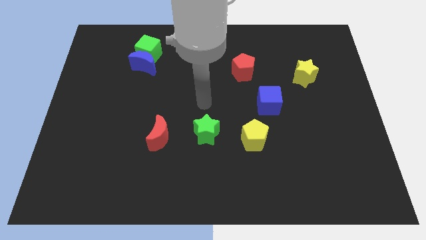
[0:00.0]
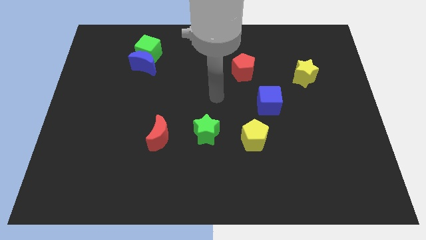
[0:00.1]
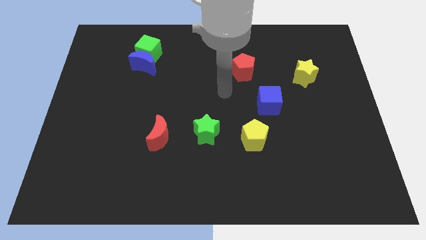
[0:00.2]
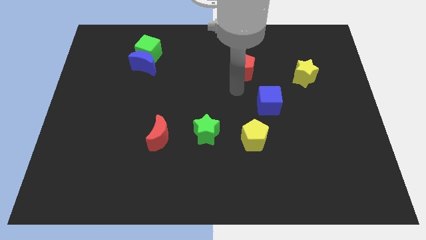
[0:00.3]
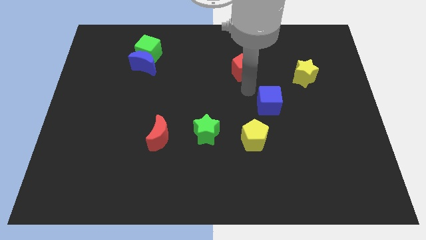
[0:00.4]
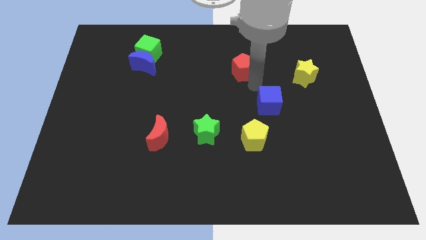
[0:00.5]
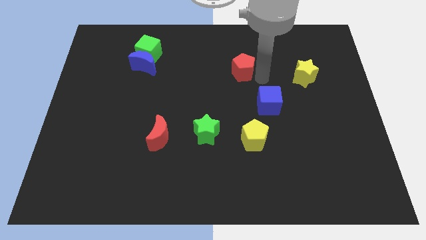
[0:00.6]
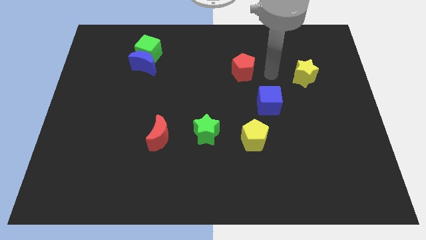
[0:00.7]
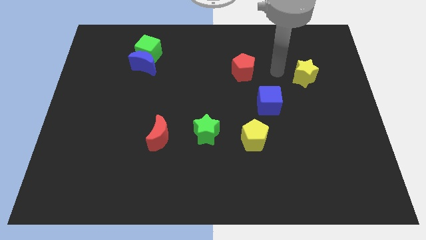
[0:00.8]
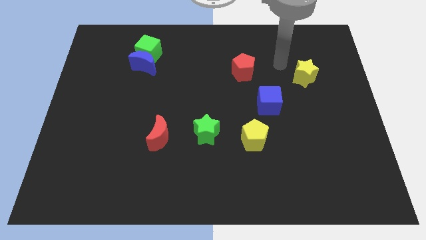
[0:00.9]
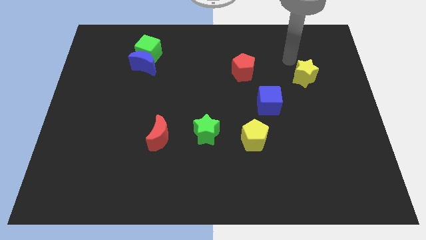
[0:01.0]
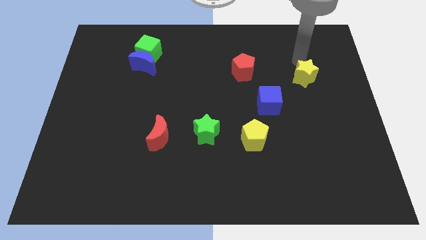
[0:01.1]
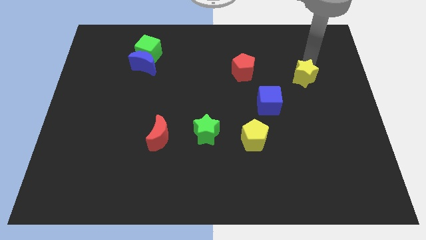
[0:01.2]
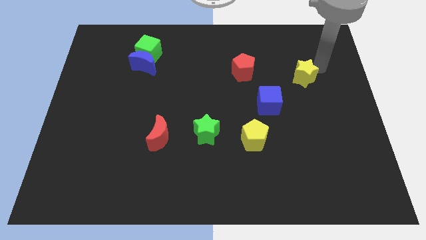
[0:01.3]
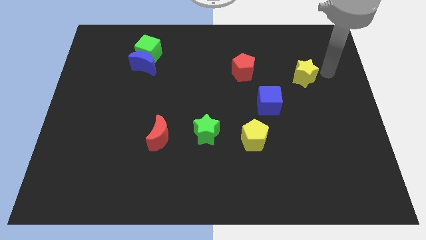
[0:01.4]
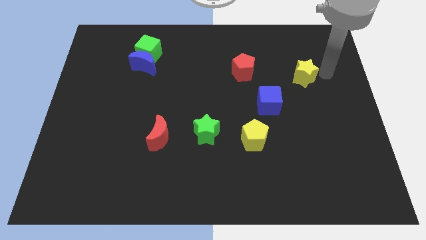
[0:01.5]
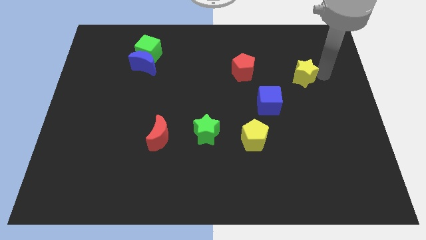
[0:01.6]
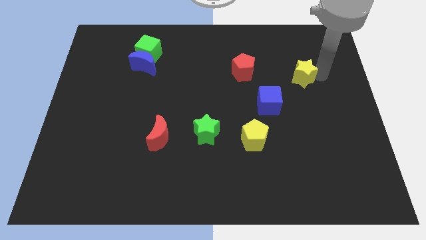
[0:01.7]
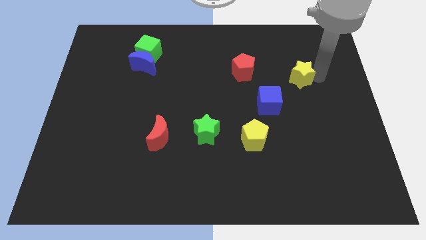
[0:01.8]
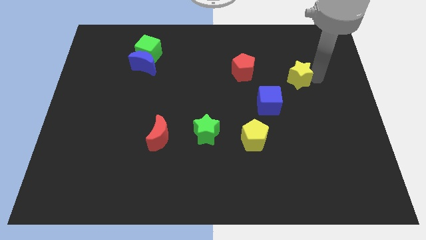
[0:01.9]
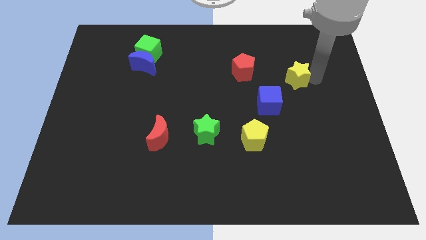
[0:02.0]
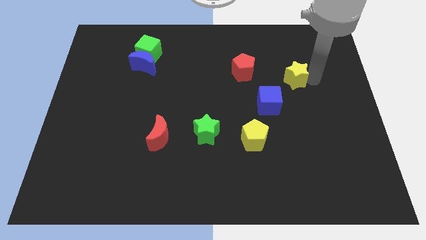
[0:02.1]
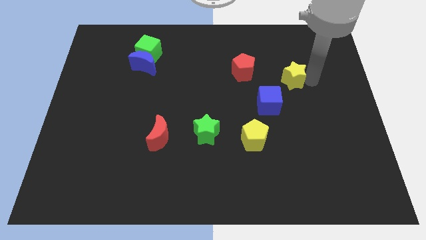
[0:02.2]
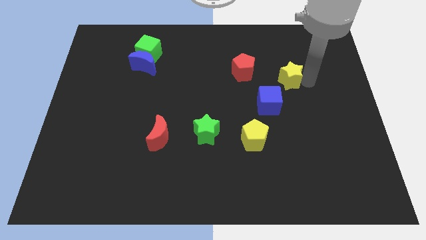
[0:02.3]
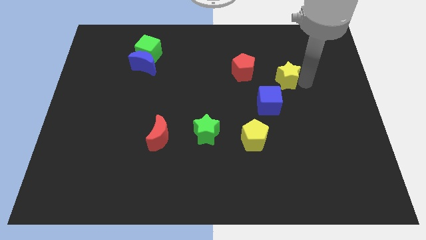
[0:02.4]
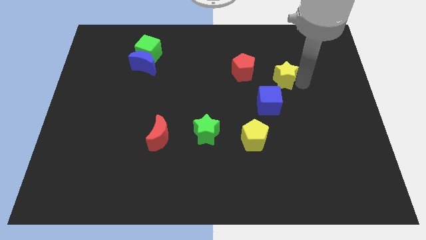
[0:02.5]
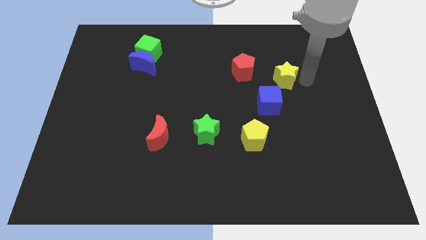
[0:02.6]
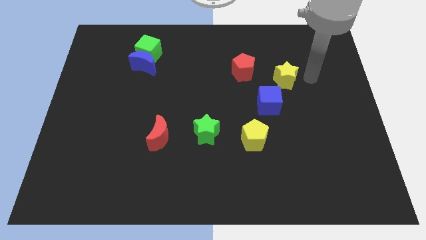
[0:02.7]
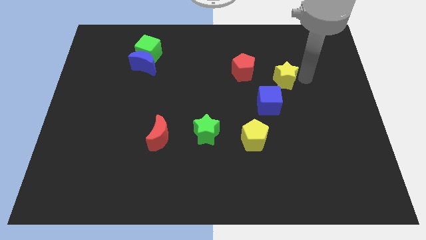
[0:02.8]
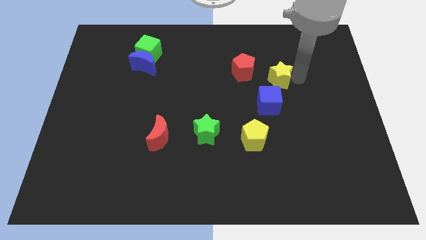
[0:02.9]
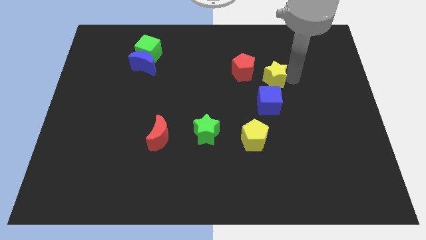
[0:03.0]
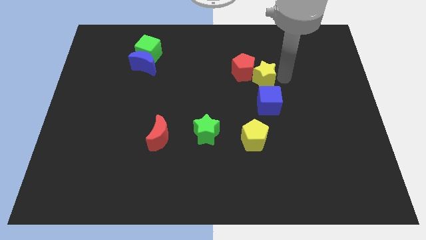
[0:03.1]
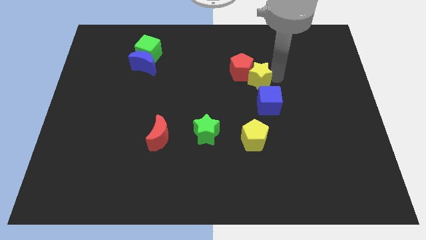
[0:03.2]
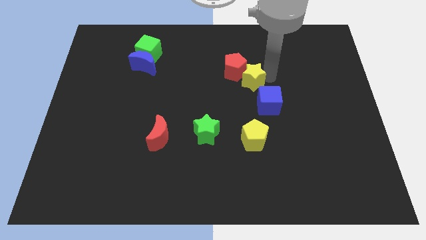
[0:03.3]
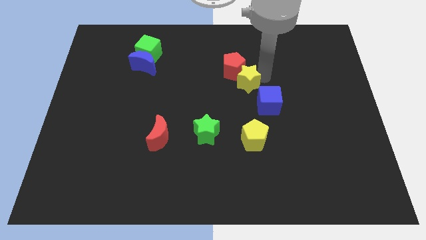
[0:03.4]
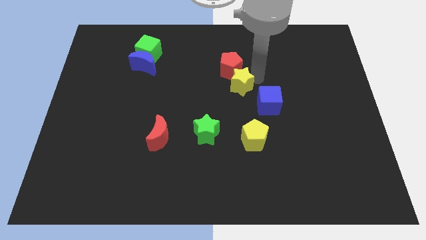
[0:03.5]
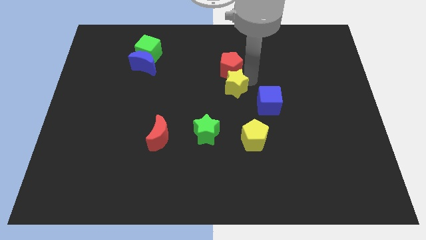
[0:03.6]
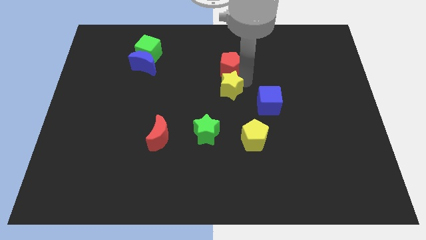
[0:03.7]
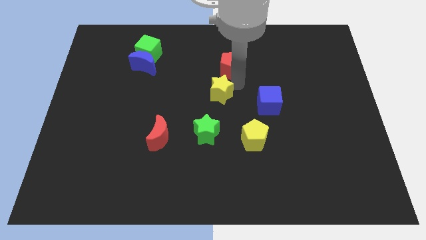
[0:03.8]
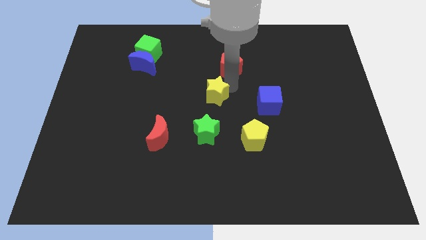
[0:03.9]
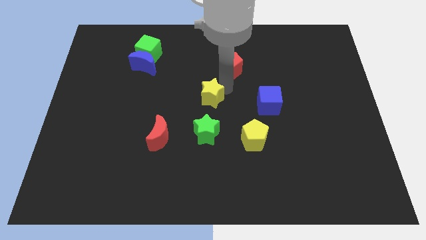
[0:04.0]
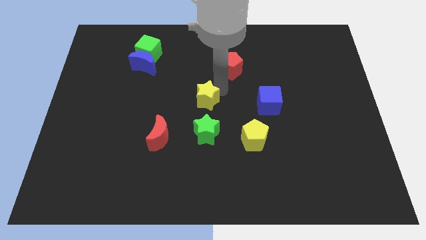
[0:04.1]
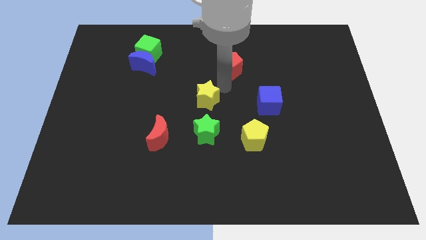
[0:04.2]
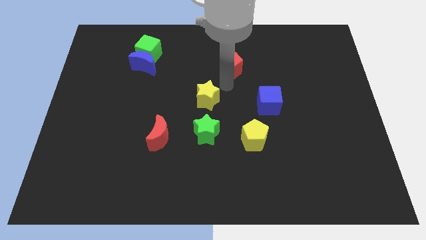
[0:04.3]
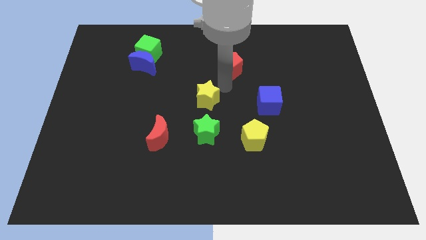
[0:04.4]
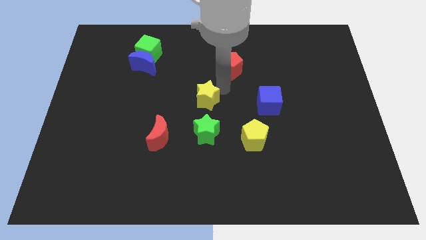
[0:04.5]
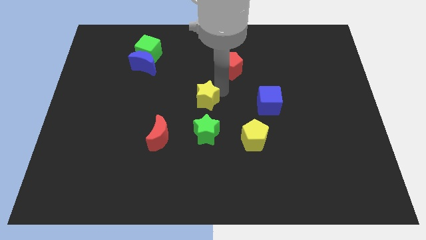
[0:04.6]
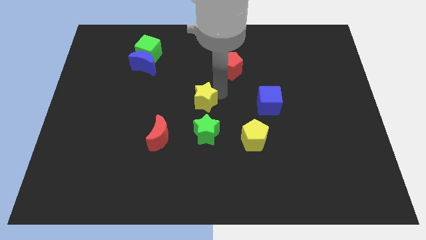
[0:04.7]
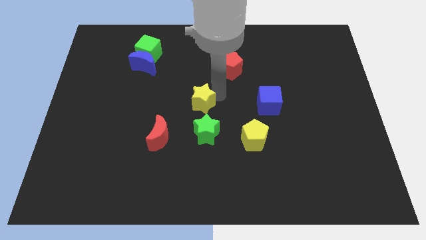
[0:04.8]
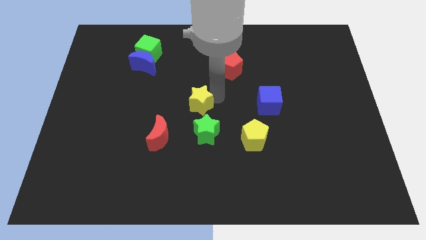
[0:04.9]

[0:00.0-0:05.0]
slide the yellow star to the top left side of the green star

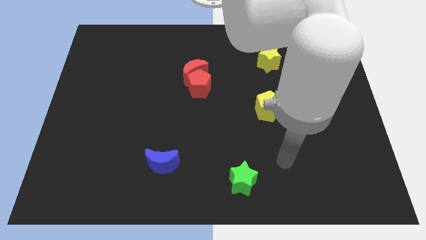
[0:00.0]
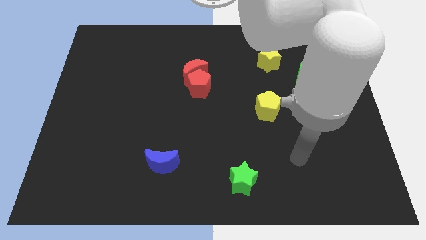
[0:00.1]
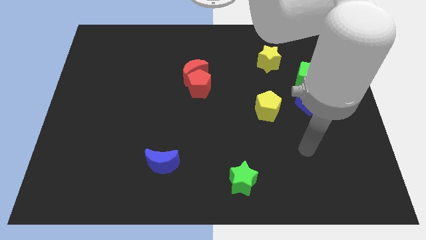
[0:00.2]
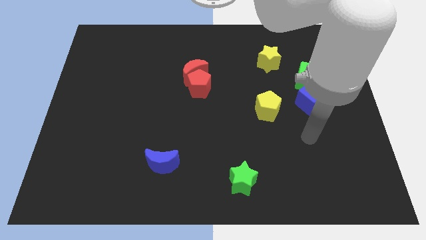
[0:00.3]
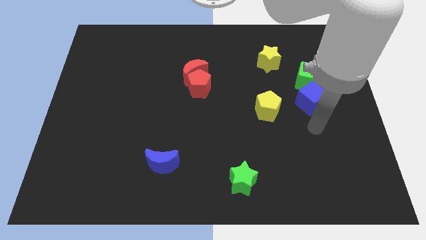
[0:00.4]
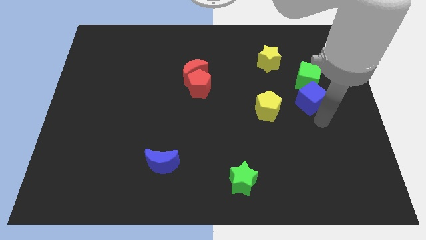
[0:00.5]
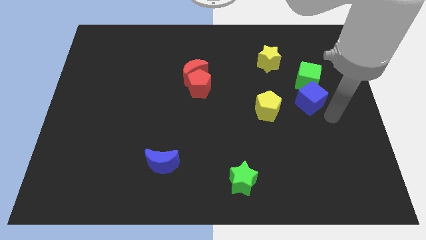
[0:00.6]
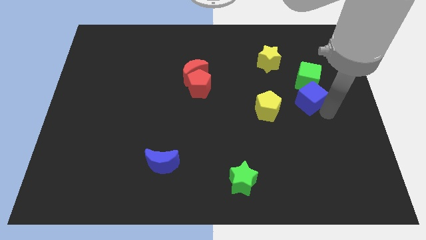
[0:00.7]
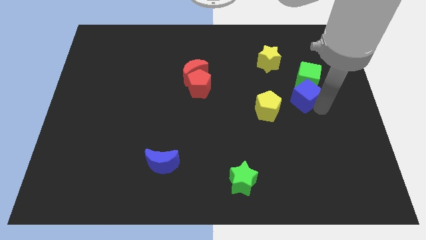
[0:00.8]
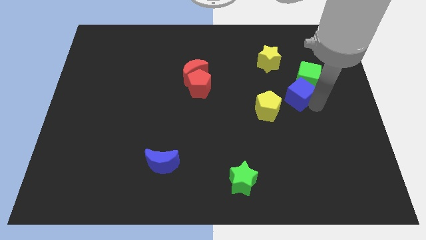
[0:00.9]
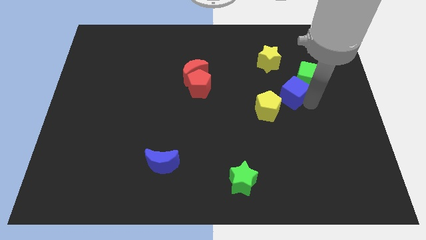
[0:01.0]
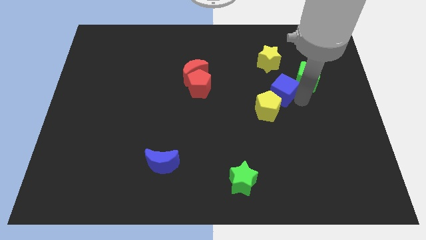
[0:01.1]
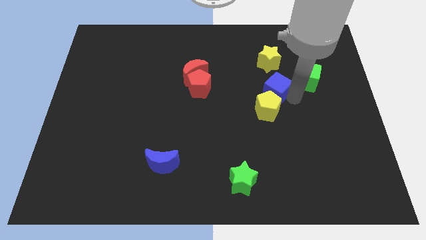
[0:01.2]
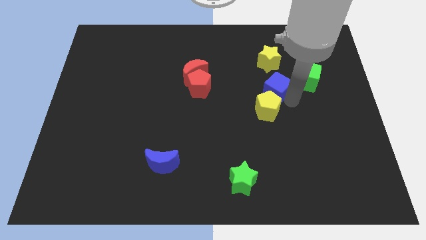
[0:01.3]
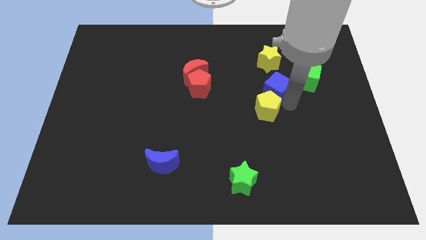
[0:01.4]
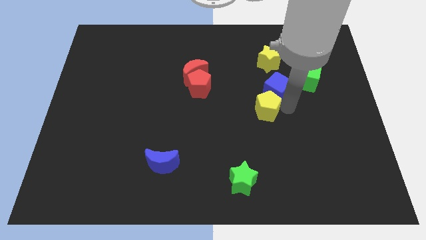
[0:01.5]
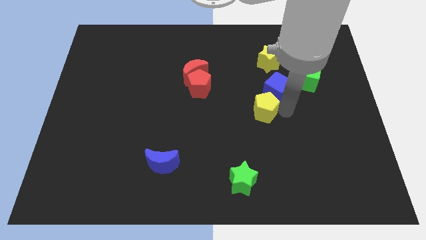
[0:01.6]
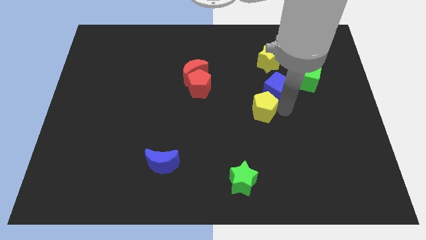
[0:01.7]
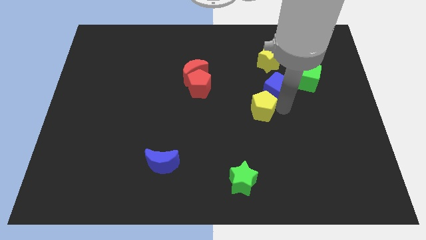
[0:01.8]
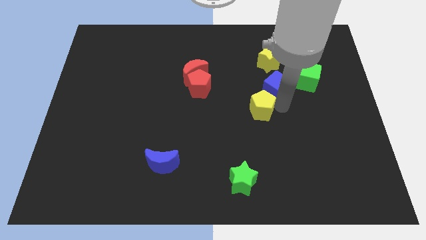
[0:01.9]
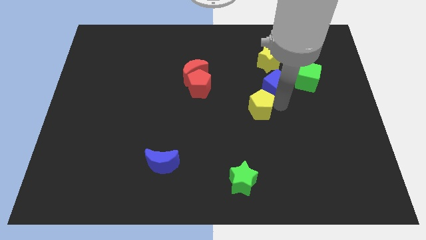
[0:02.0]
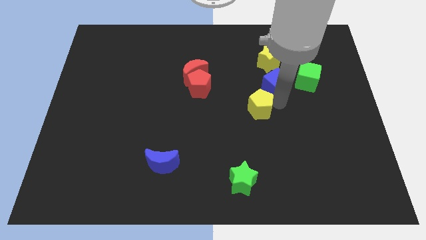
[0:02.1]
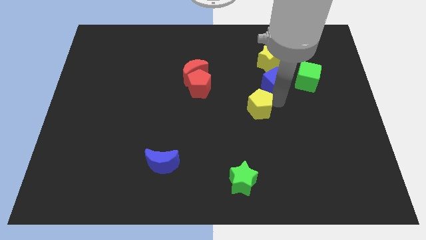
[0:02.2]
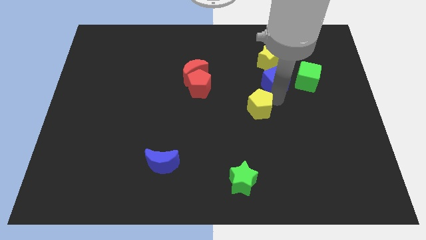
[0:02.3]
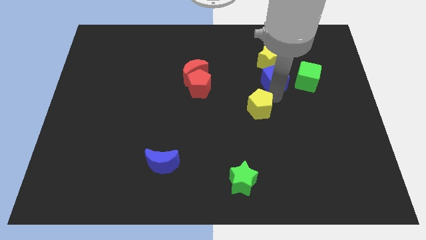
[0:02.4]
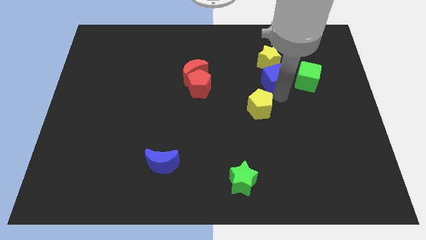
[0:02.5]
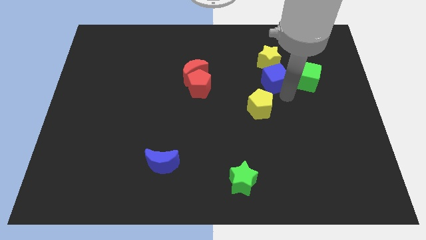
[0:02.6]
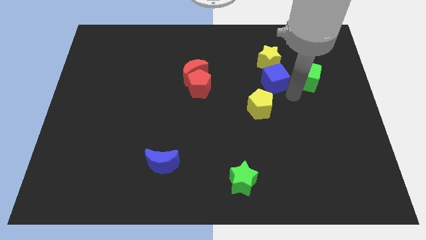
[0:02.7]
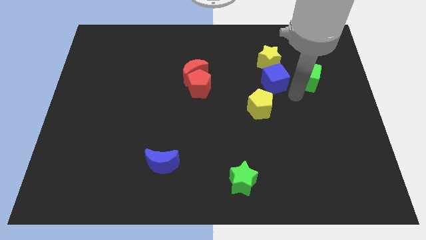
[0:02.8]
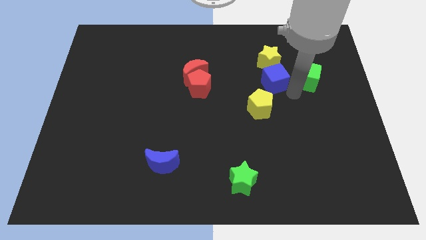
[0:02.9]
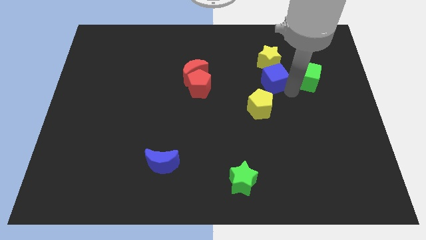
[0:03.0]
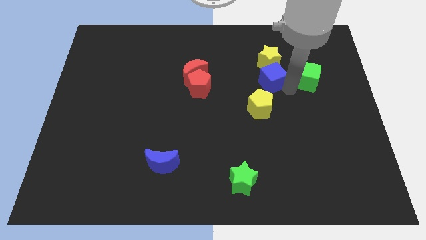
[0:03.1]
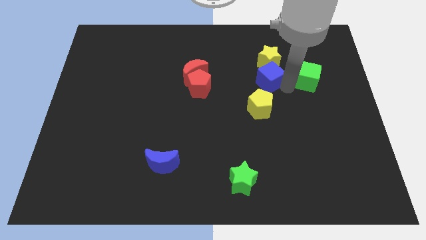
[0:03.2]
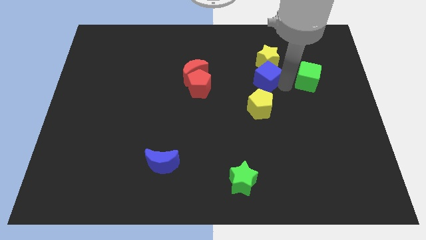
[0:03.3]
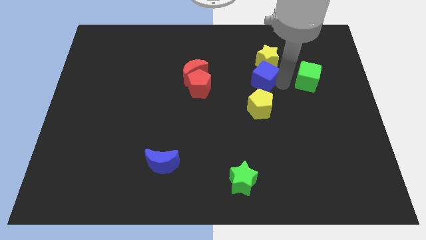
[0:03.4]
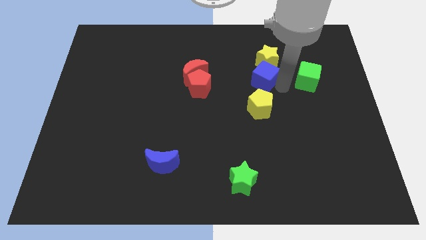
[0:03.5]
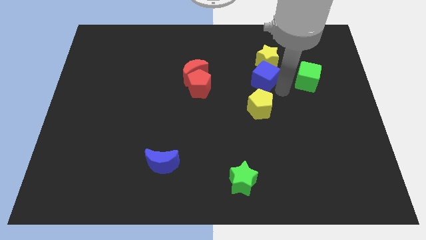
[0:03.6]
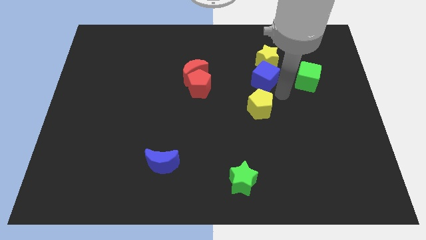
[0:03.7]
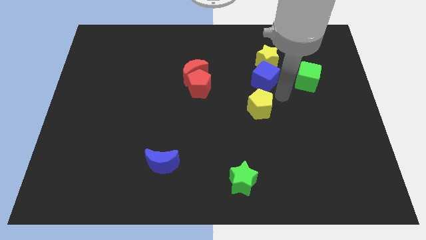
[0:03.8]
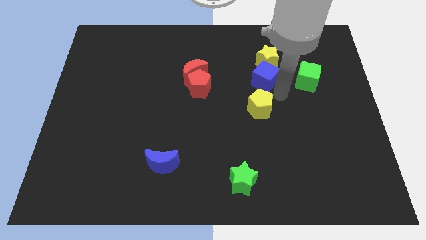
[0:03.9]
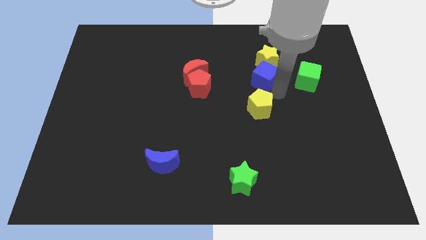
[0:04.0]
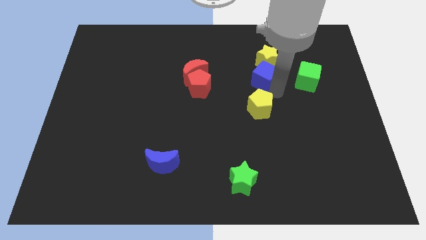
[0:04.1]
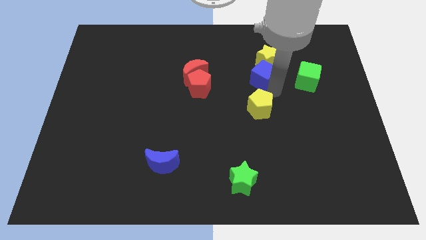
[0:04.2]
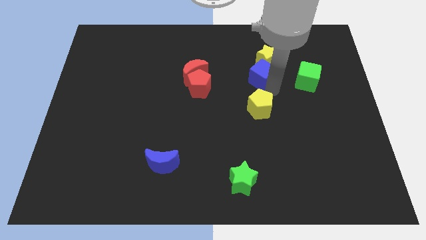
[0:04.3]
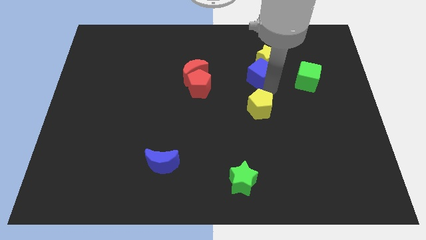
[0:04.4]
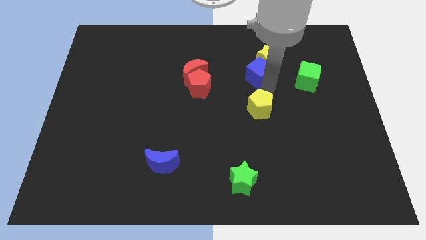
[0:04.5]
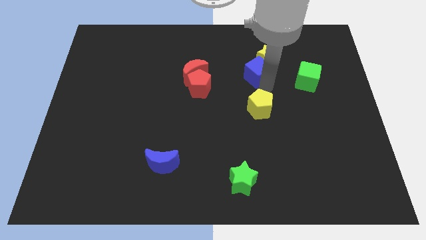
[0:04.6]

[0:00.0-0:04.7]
push the blue cube to the left side of the yellow star
